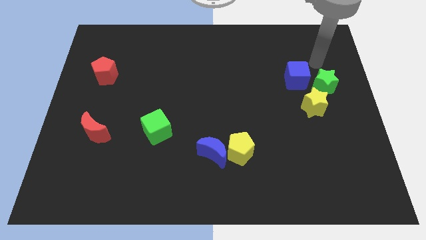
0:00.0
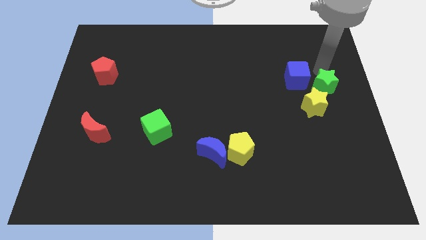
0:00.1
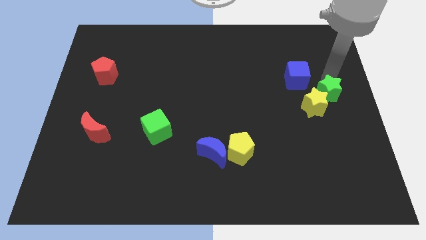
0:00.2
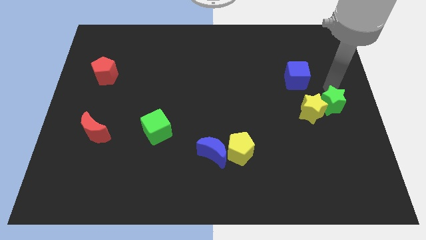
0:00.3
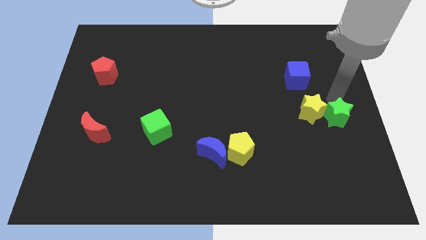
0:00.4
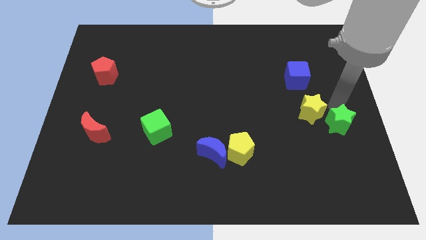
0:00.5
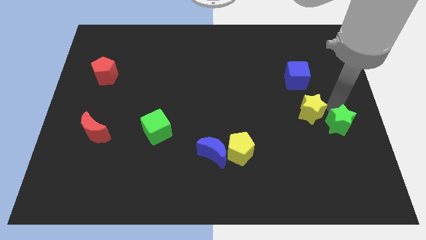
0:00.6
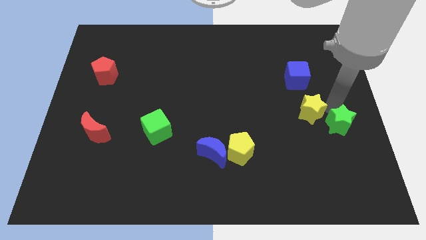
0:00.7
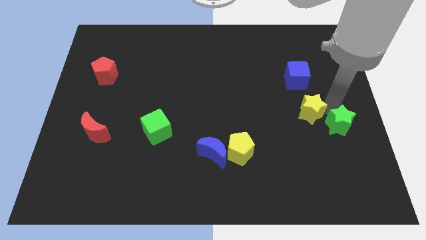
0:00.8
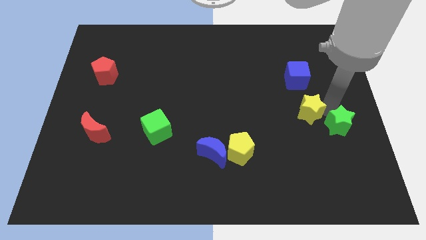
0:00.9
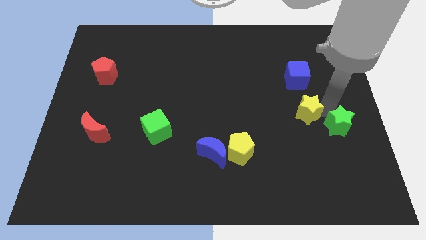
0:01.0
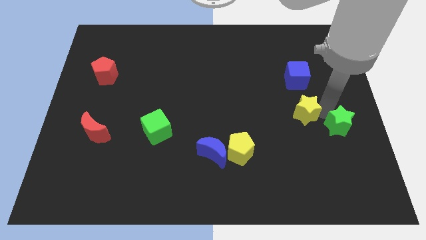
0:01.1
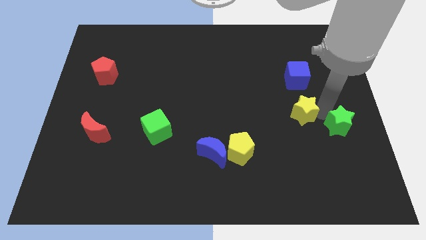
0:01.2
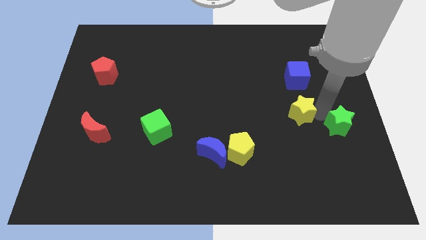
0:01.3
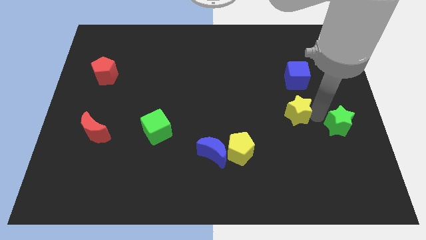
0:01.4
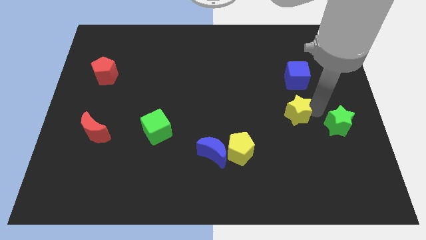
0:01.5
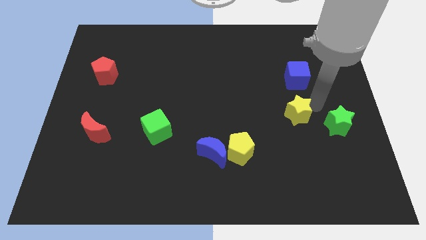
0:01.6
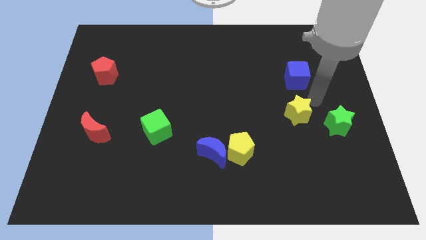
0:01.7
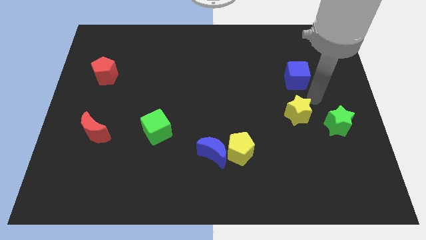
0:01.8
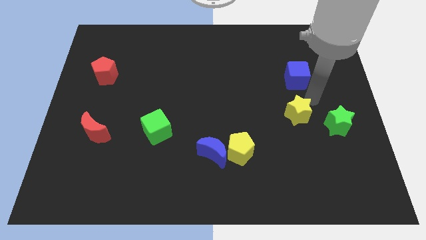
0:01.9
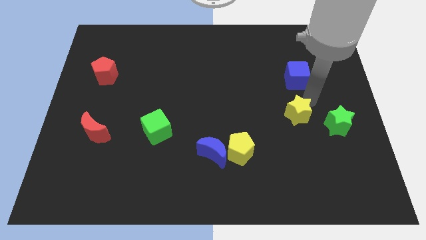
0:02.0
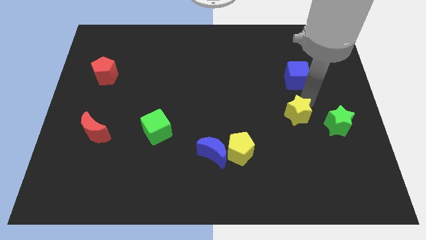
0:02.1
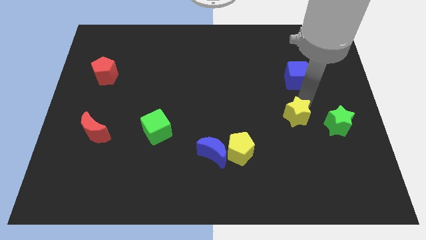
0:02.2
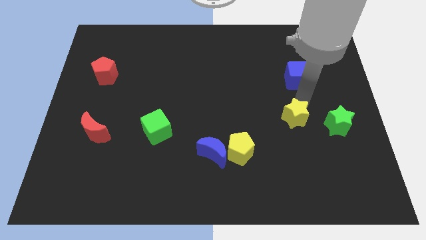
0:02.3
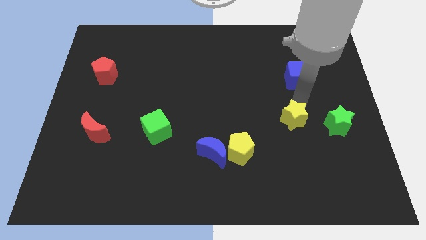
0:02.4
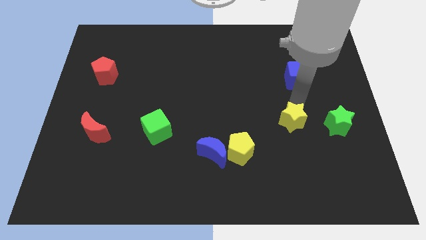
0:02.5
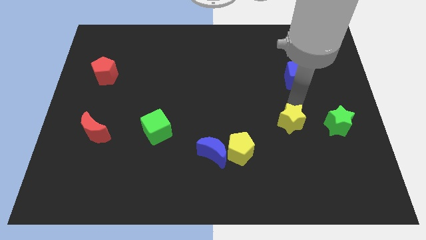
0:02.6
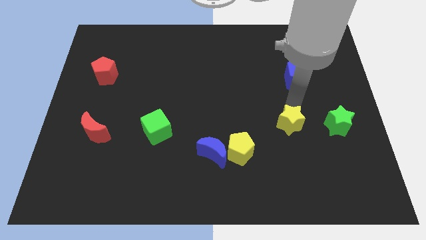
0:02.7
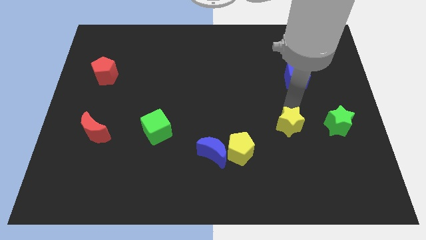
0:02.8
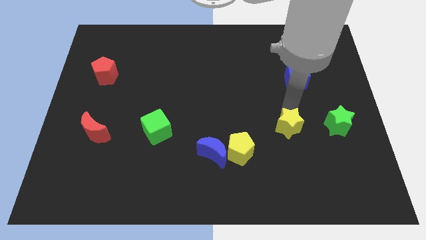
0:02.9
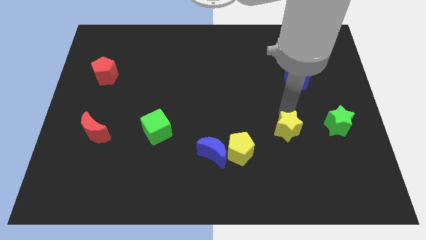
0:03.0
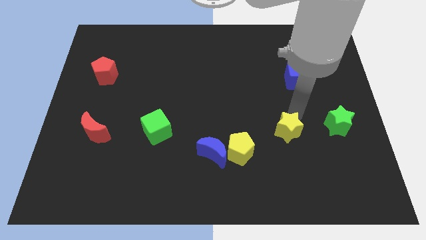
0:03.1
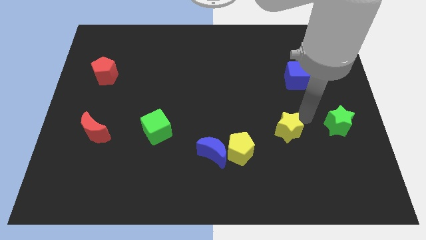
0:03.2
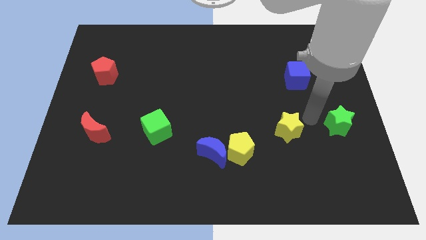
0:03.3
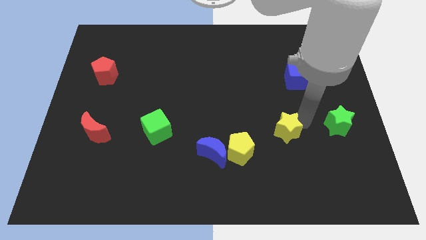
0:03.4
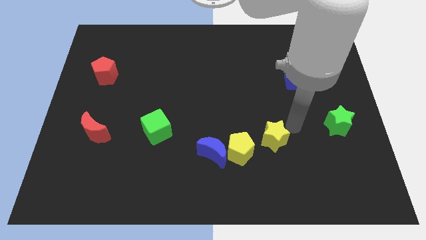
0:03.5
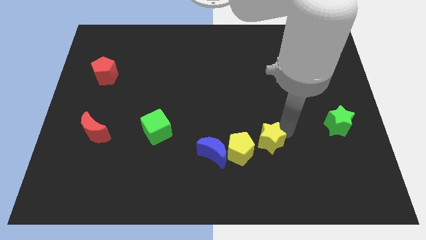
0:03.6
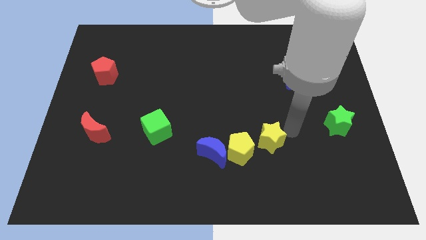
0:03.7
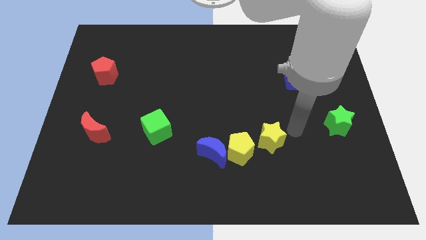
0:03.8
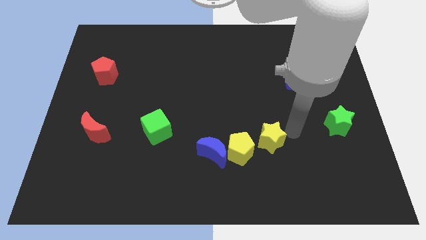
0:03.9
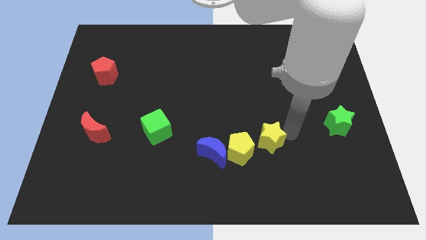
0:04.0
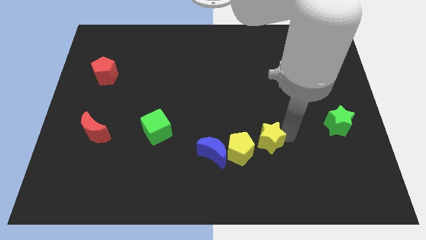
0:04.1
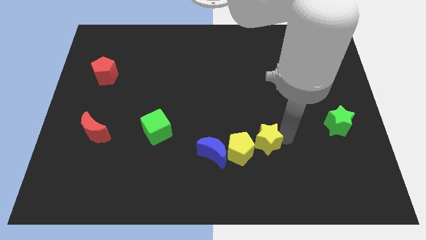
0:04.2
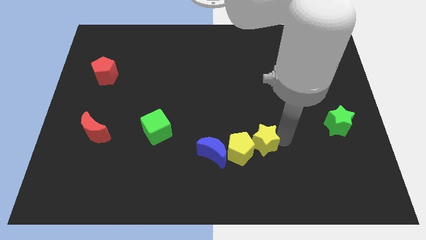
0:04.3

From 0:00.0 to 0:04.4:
put the yellow star close to the yellow pentagon

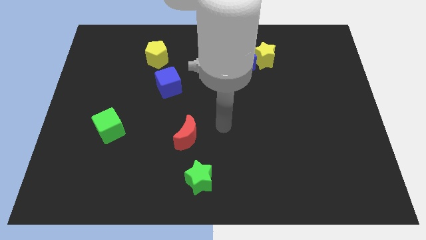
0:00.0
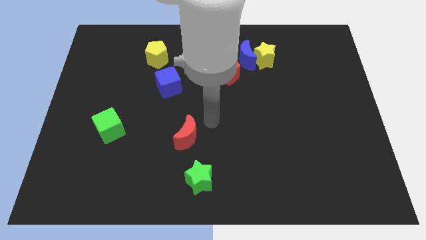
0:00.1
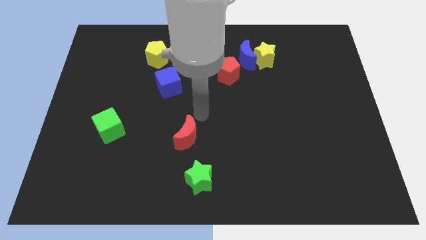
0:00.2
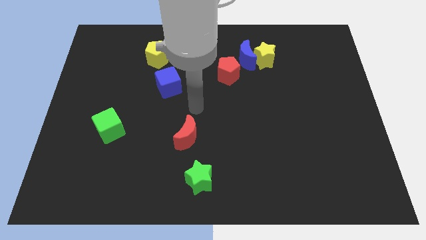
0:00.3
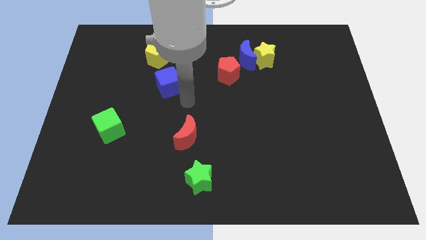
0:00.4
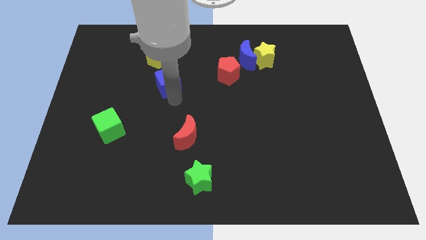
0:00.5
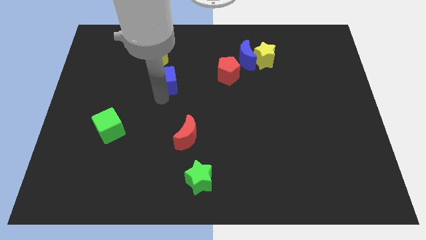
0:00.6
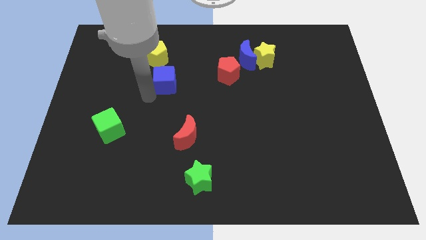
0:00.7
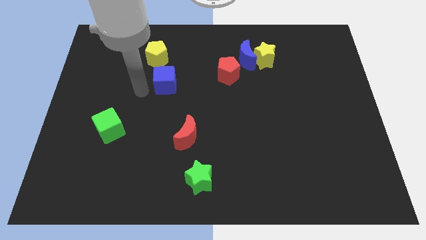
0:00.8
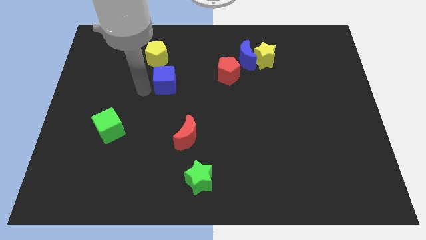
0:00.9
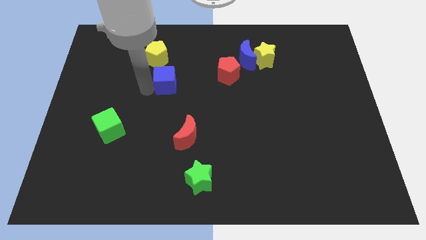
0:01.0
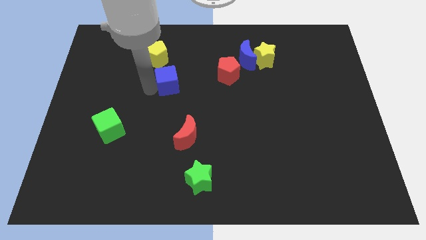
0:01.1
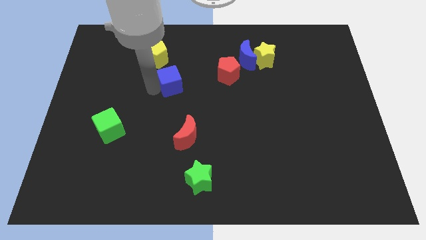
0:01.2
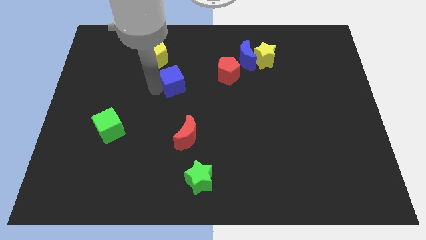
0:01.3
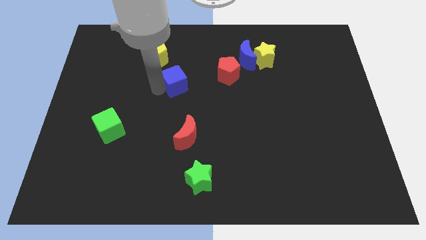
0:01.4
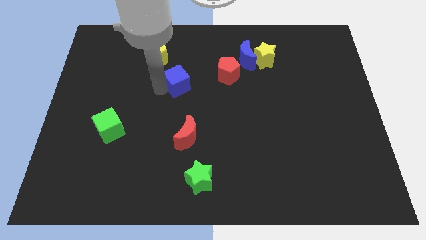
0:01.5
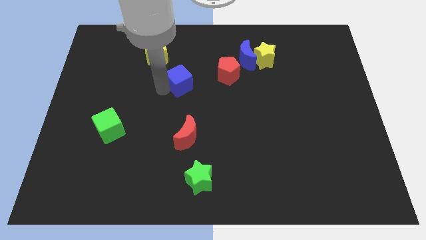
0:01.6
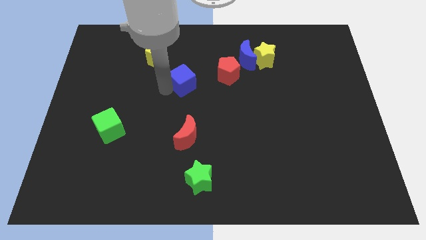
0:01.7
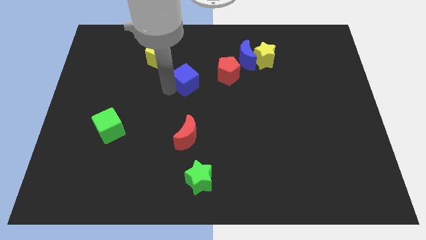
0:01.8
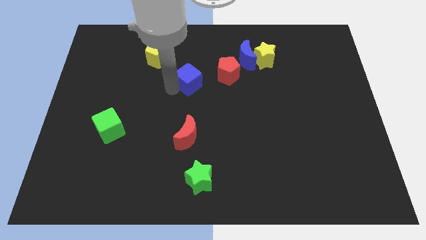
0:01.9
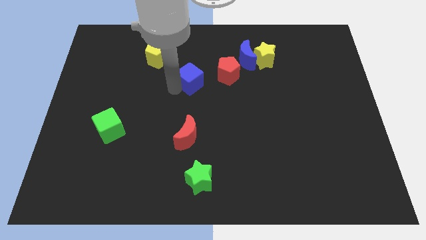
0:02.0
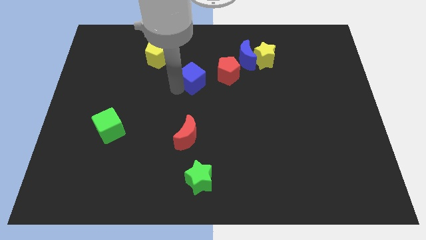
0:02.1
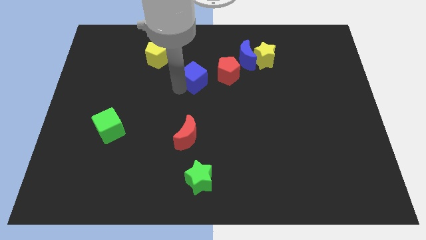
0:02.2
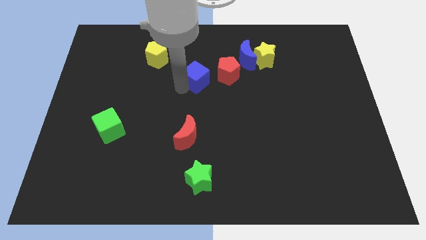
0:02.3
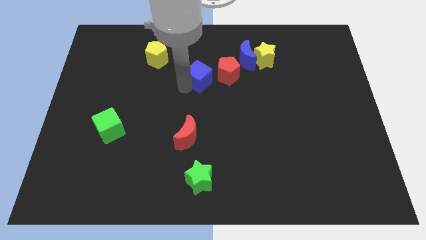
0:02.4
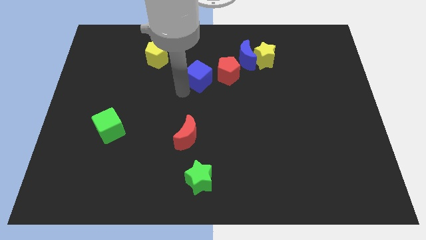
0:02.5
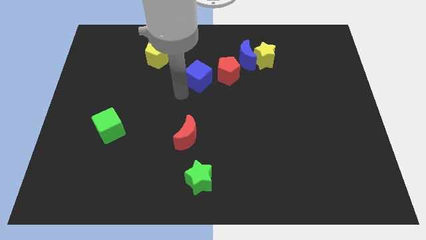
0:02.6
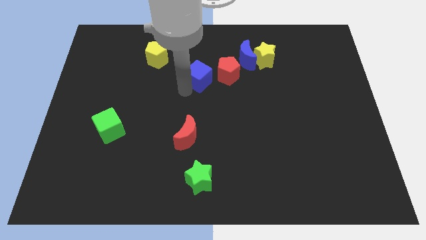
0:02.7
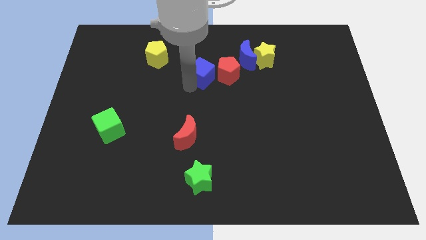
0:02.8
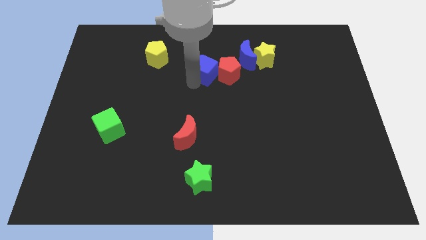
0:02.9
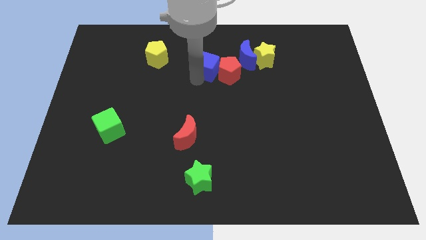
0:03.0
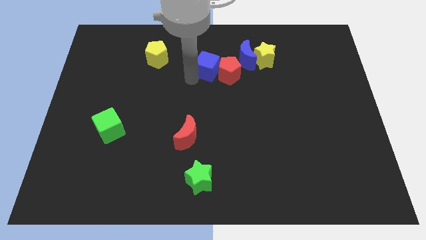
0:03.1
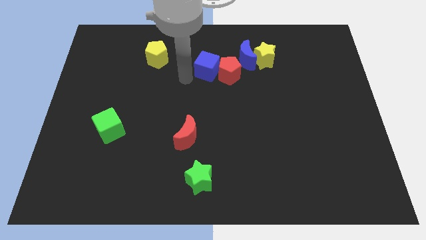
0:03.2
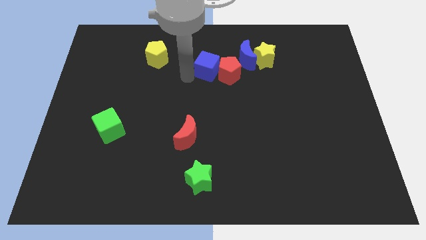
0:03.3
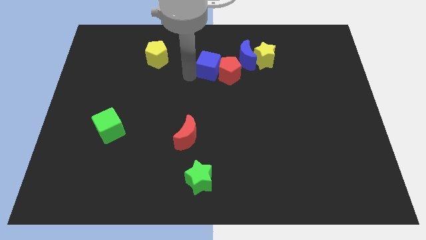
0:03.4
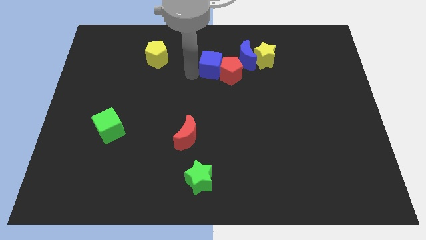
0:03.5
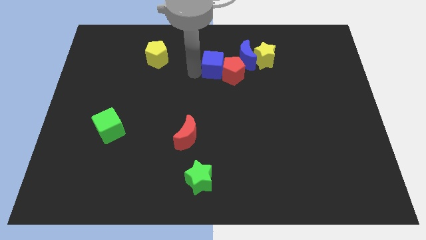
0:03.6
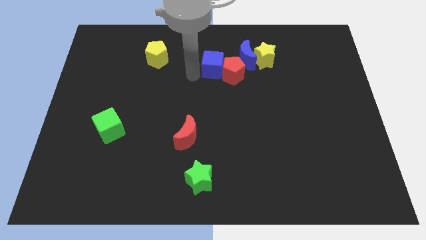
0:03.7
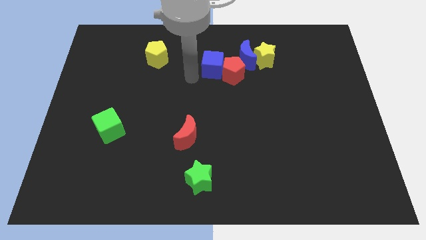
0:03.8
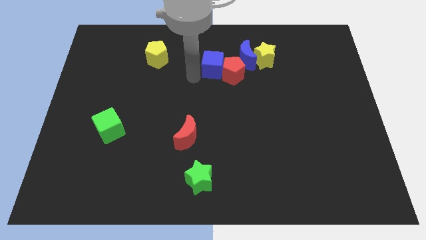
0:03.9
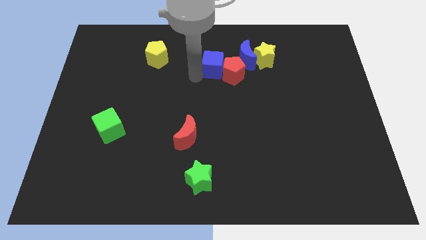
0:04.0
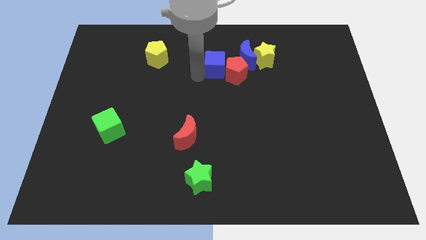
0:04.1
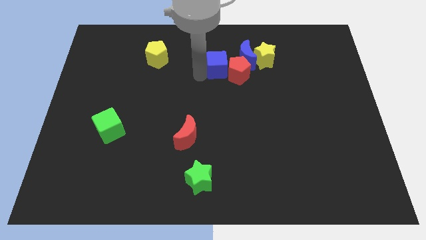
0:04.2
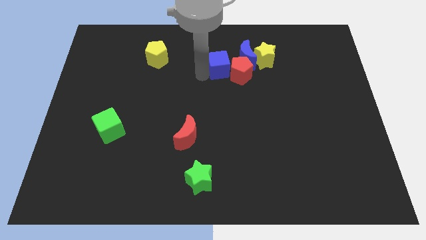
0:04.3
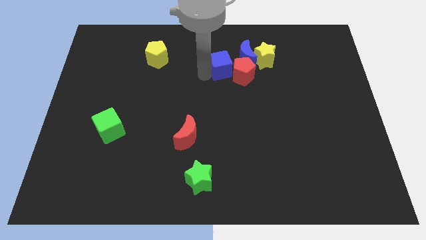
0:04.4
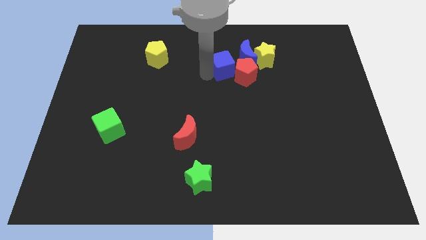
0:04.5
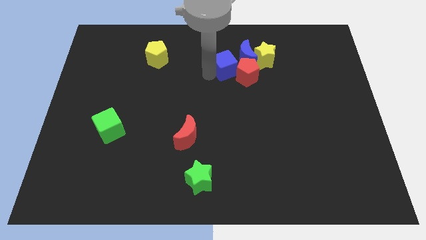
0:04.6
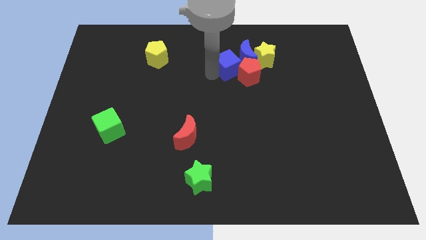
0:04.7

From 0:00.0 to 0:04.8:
put the blue cube to the blue moon
